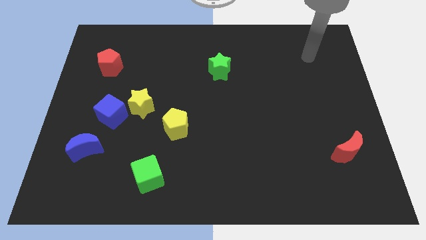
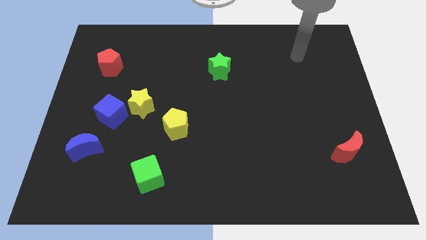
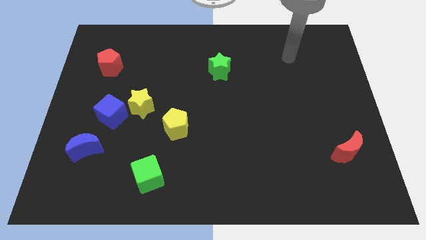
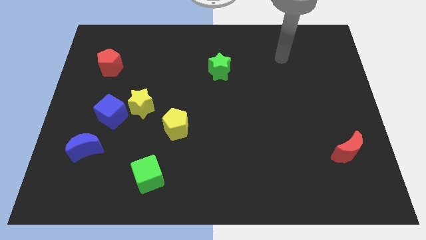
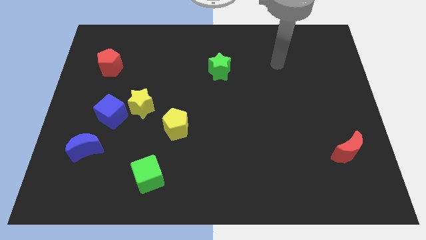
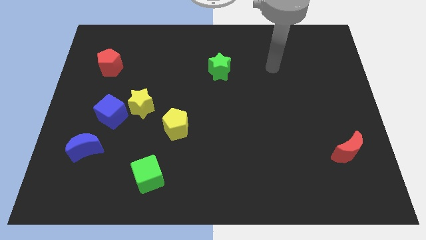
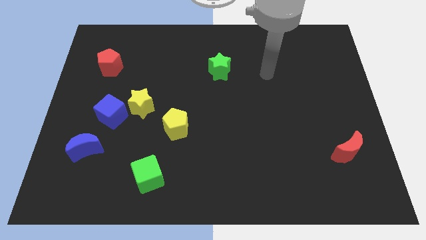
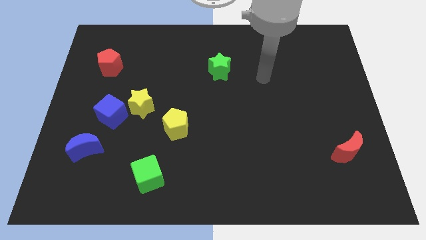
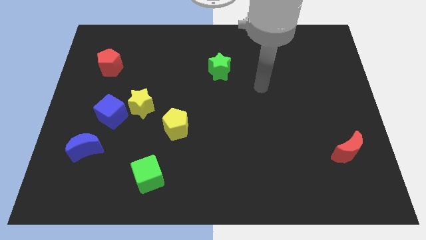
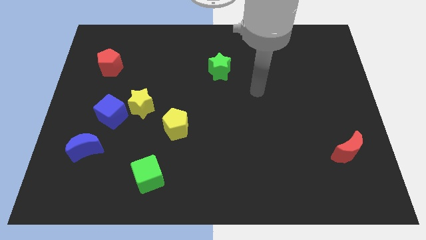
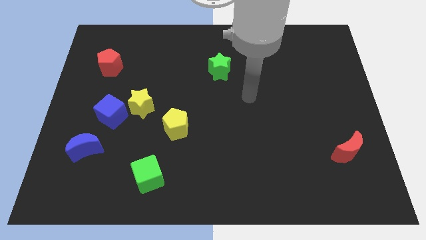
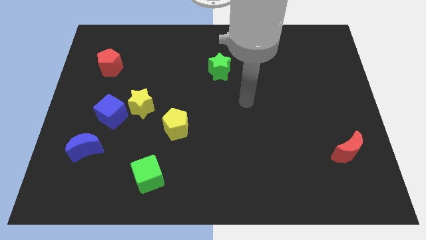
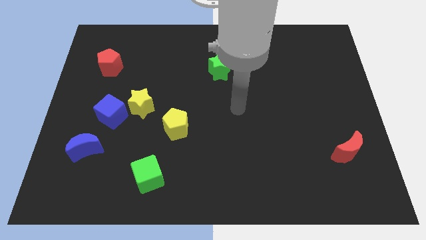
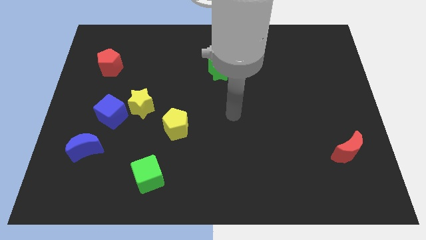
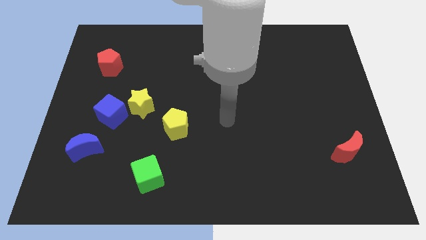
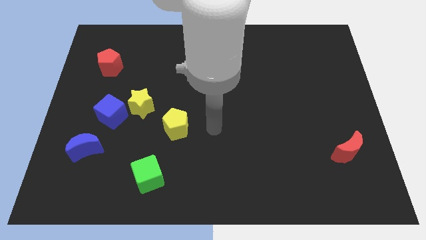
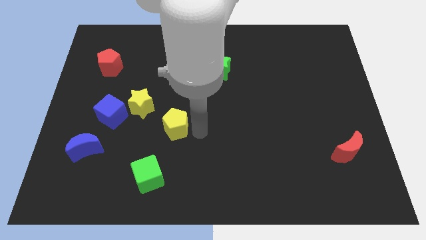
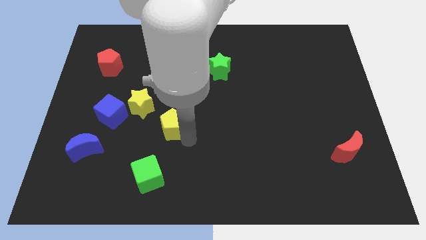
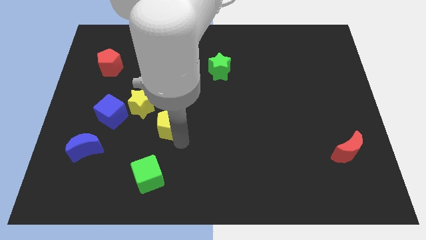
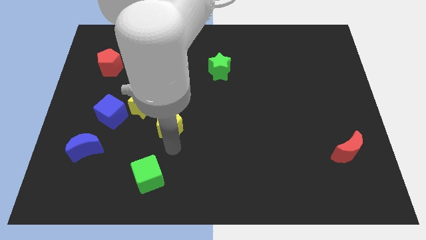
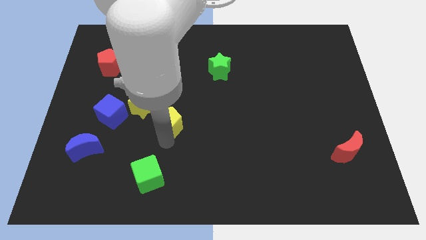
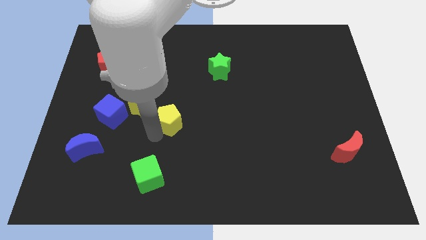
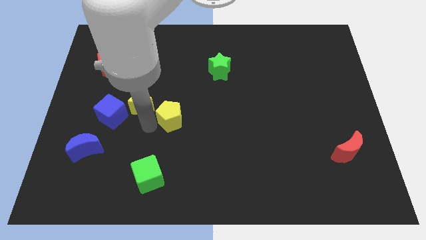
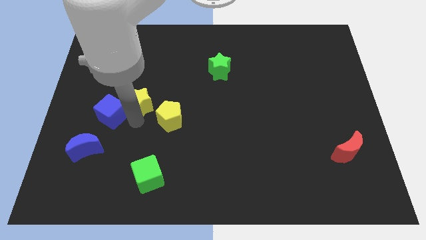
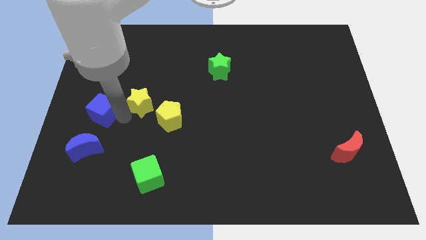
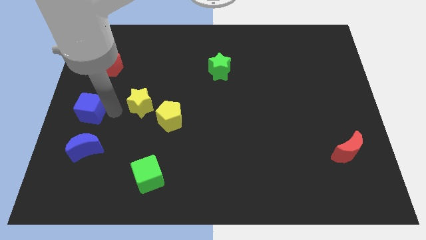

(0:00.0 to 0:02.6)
pull the yellow star apart from the blue cube

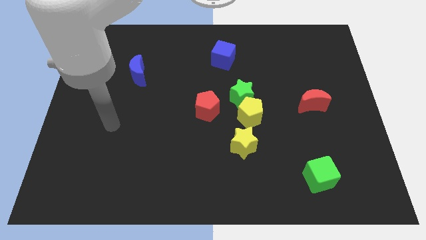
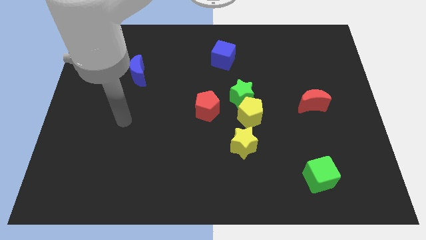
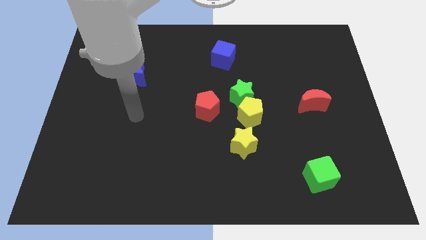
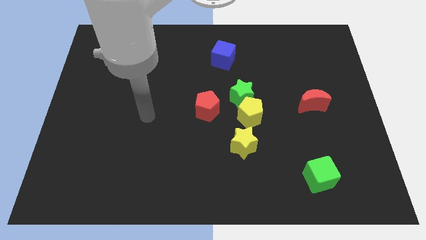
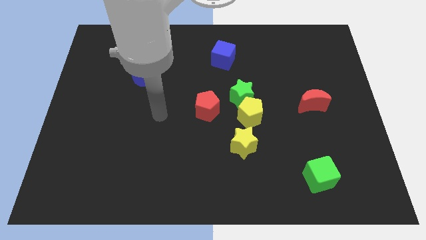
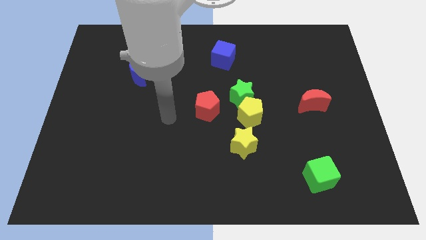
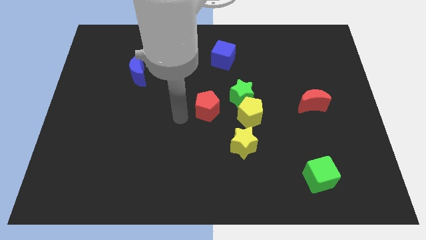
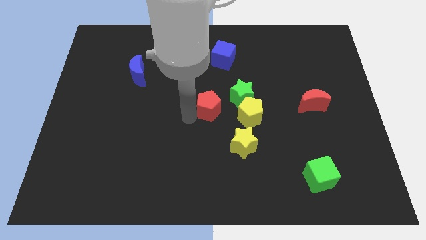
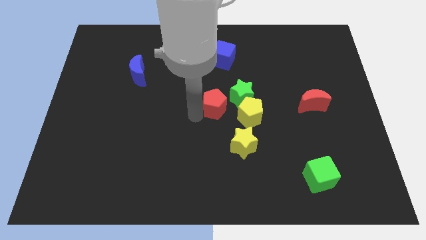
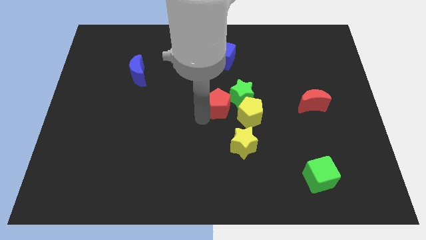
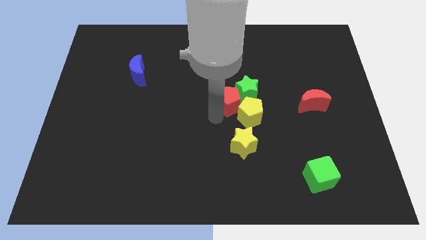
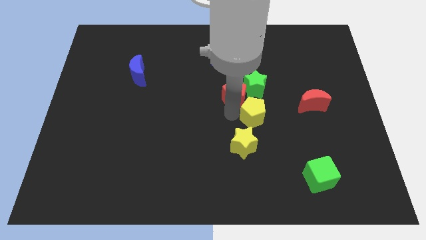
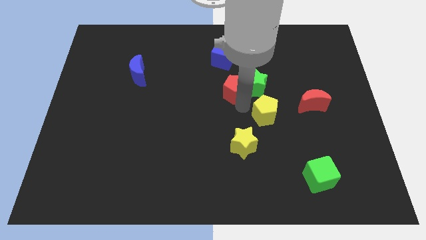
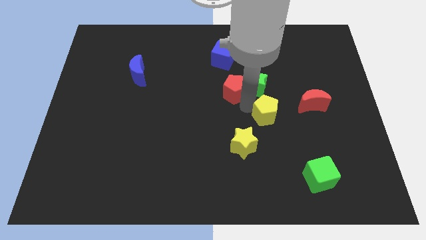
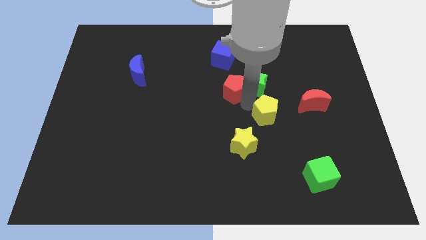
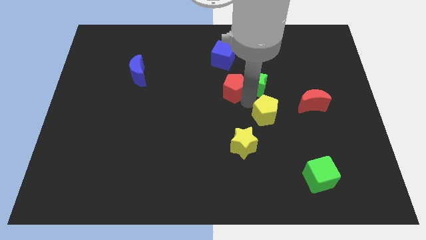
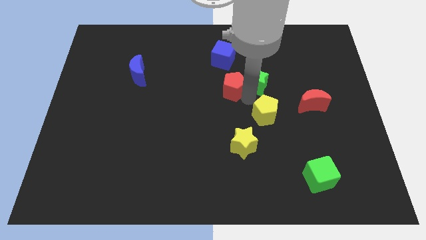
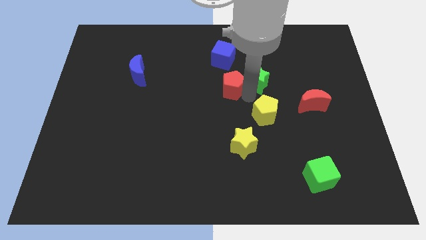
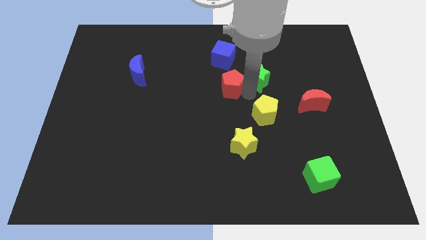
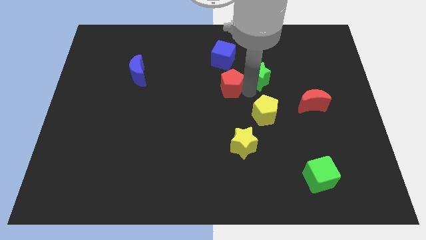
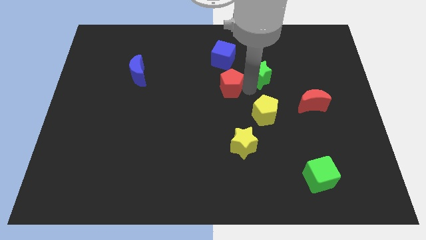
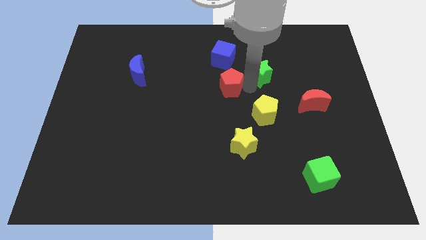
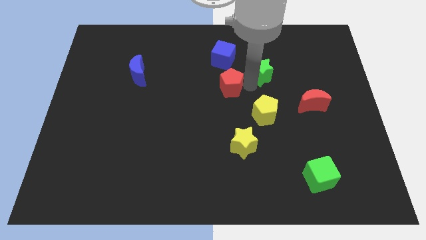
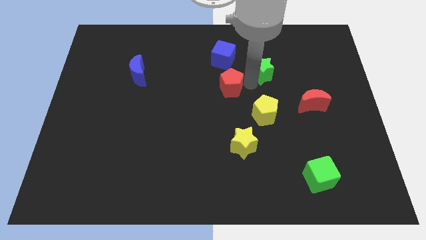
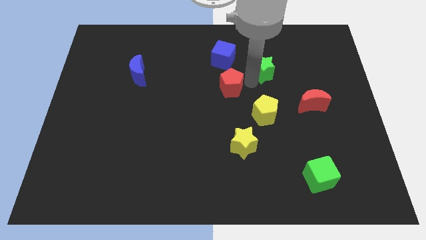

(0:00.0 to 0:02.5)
move the green star away from the yellow pentagon and red pentagon

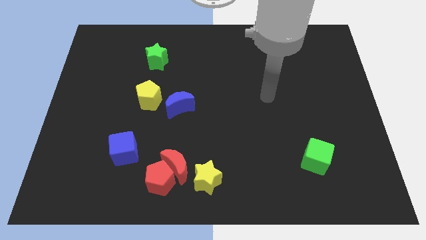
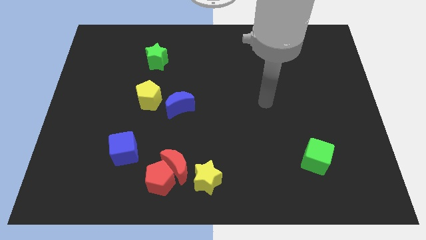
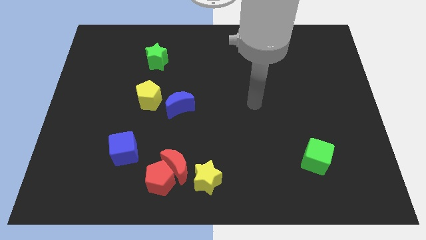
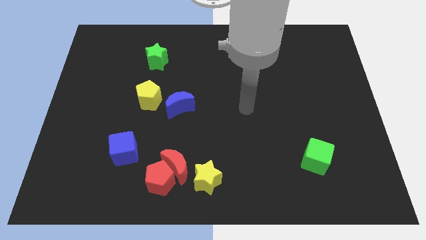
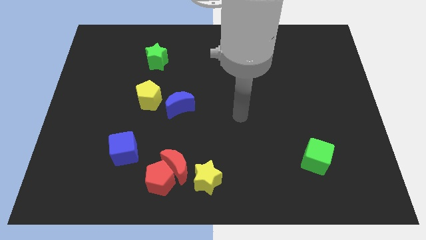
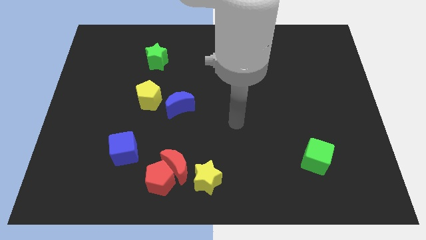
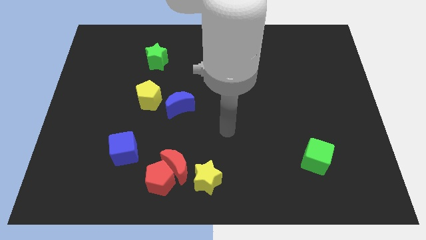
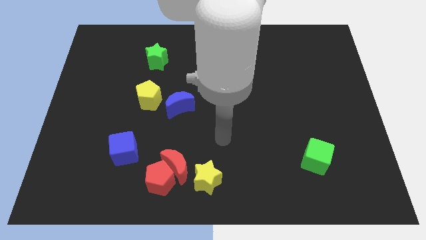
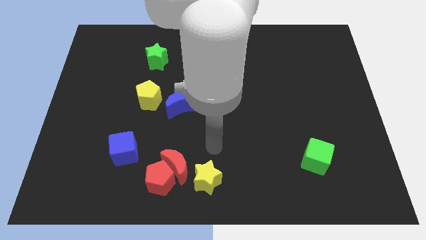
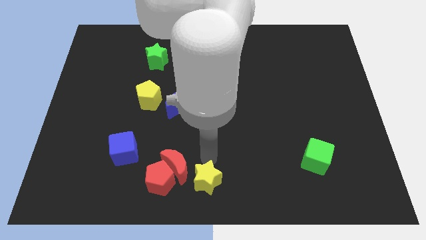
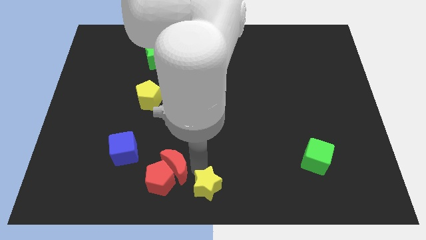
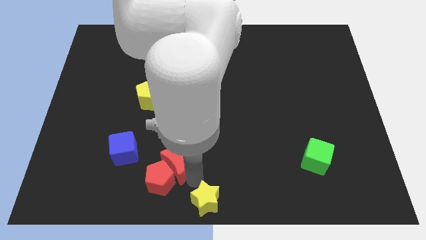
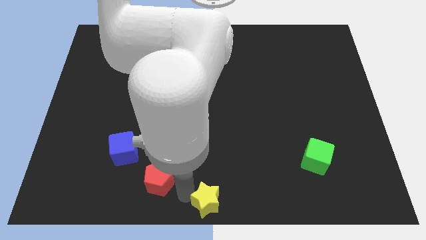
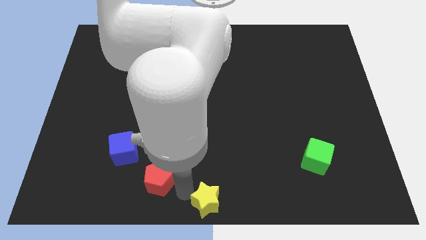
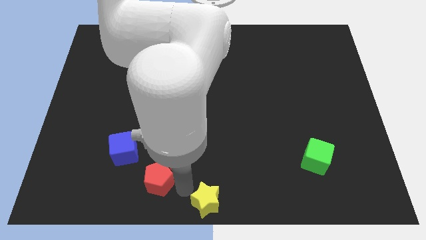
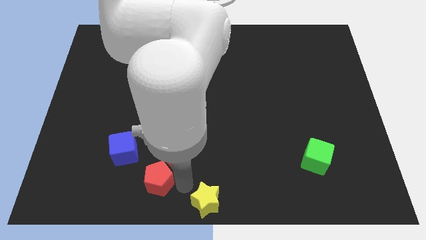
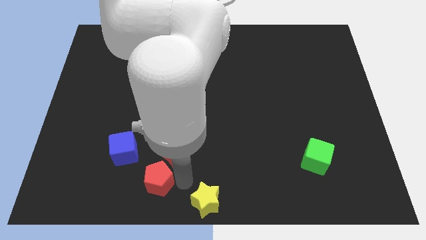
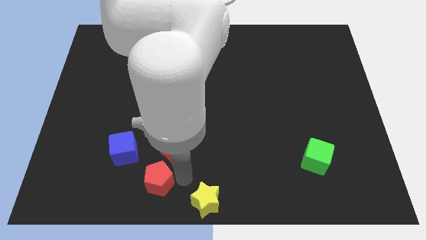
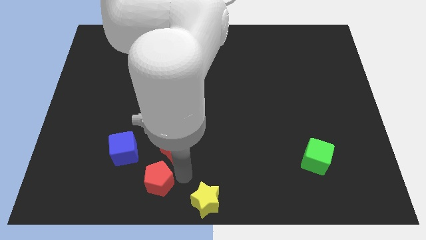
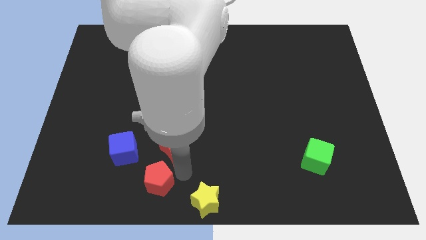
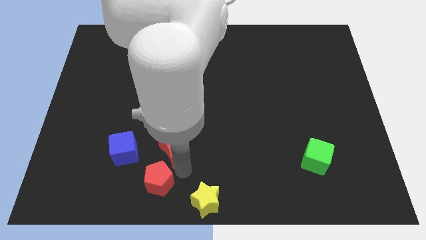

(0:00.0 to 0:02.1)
separate the red moon from the red pentagon and yellow star

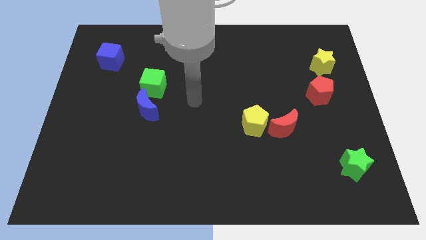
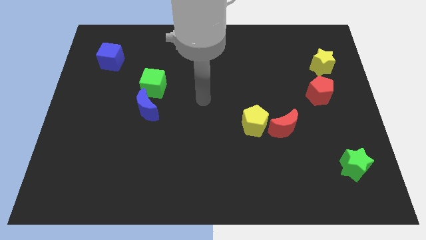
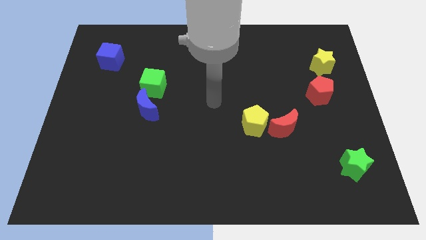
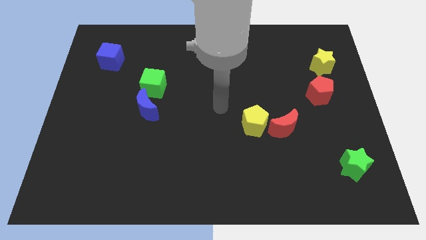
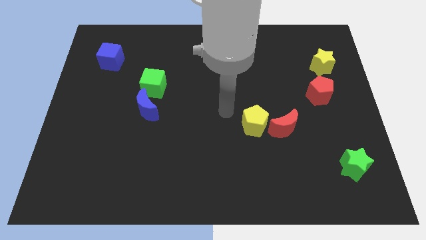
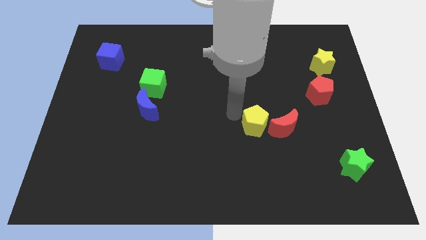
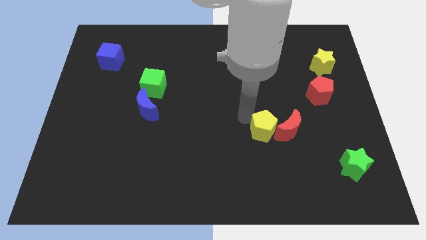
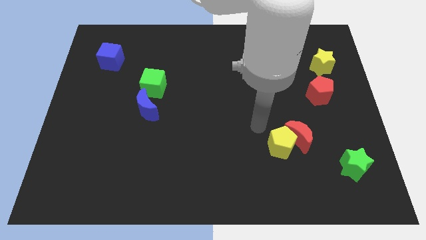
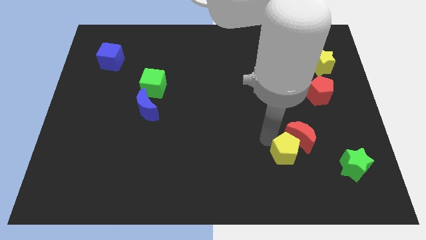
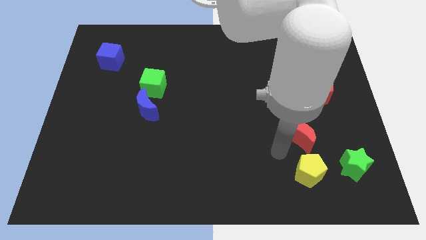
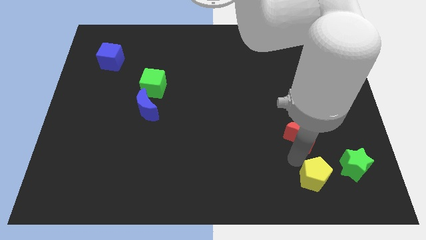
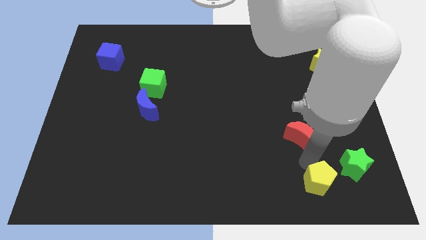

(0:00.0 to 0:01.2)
separate the red moon from the yellow pentagon

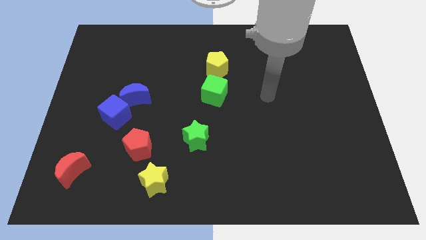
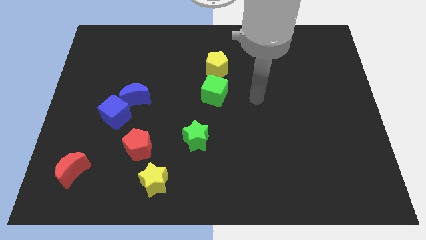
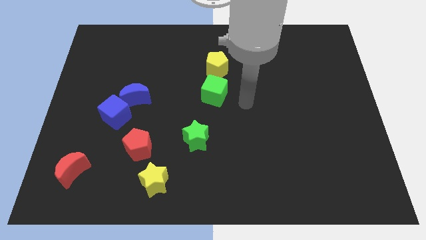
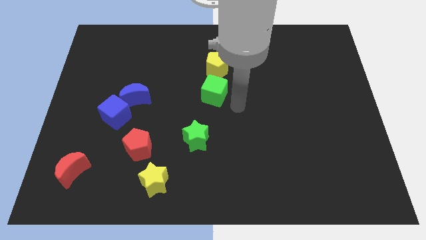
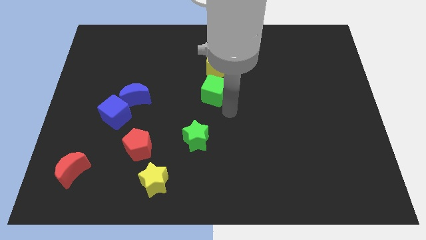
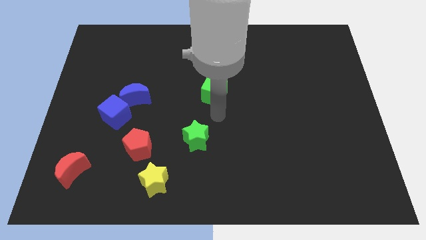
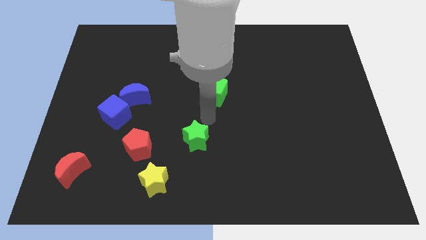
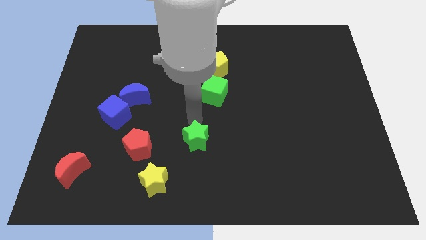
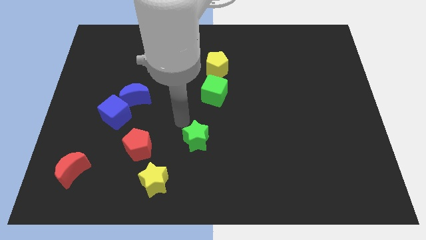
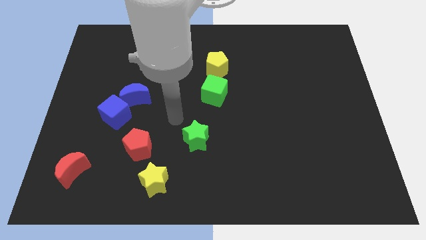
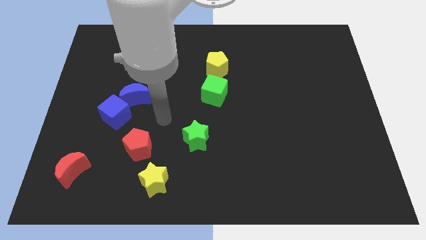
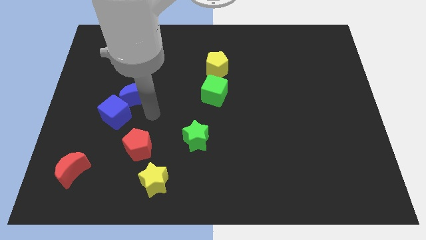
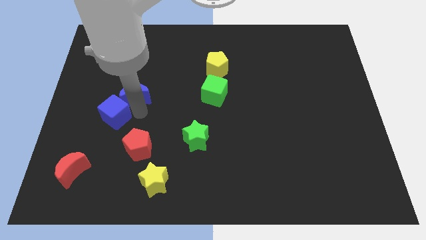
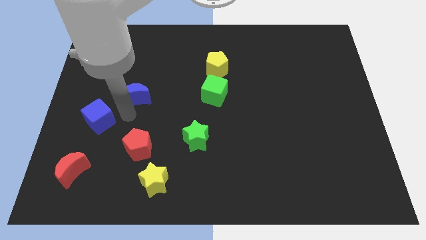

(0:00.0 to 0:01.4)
separate the blue moon from the blue cube
